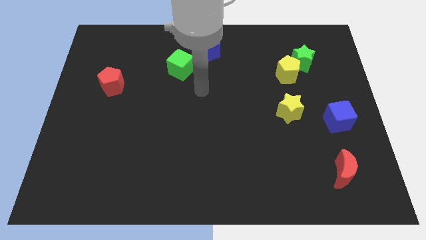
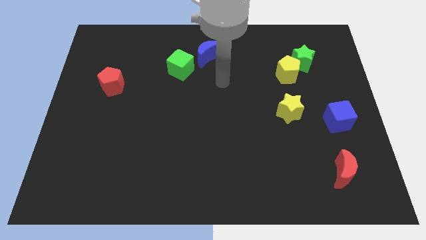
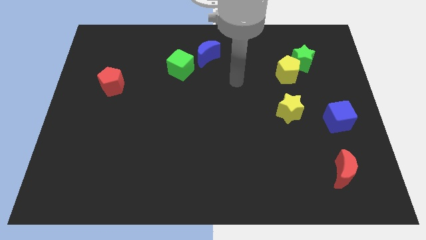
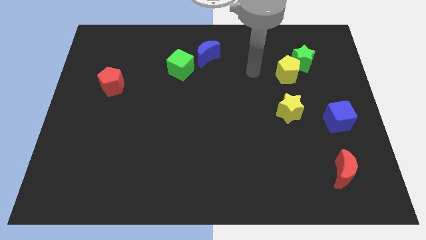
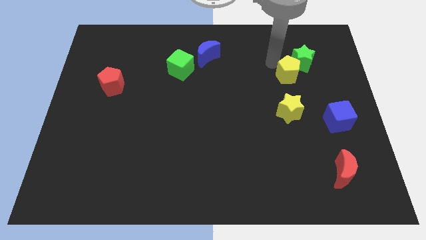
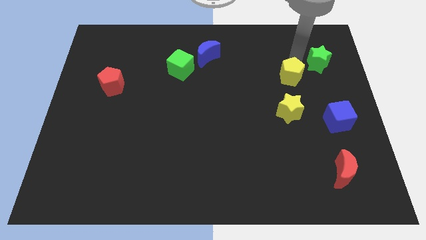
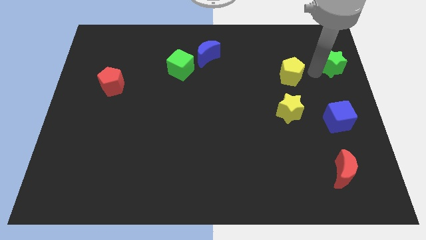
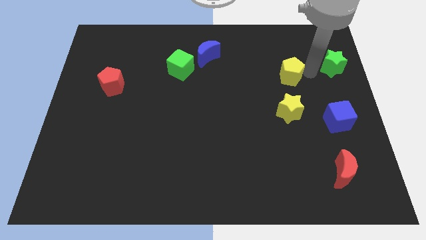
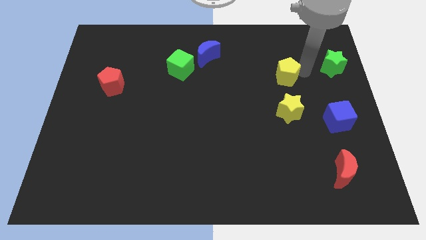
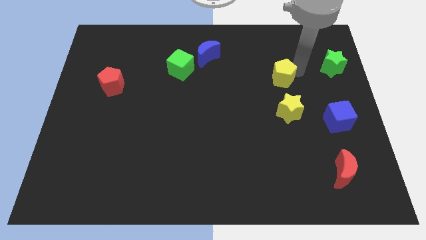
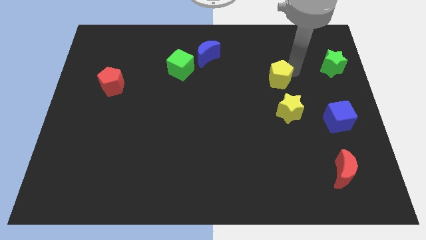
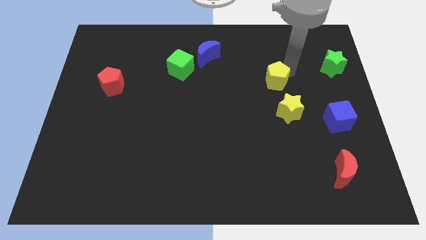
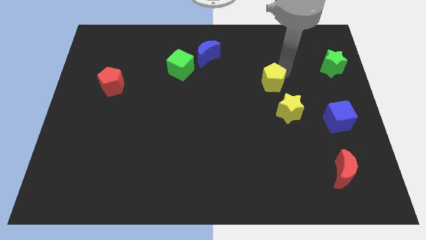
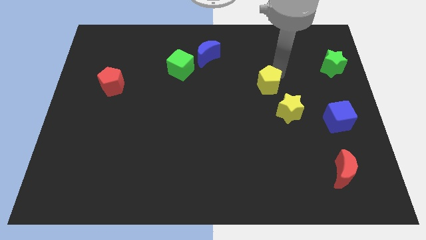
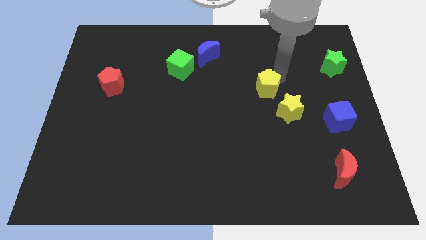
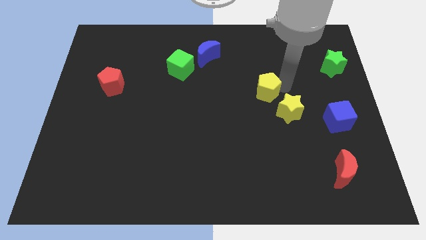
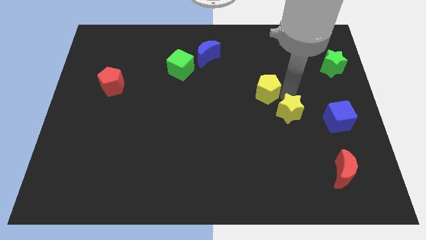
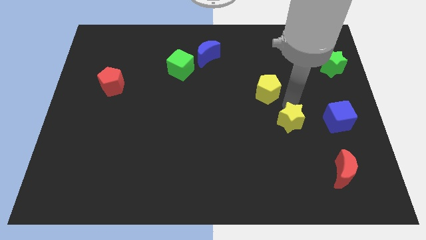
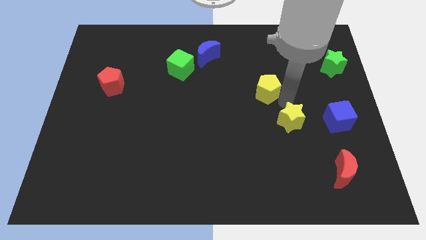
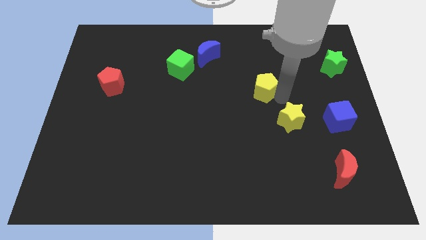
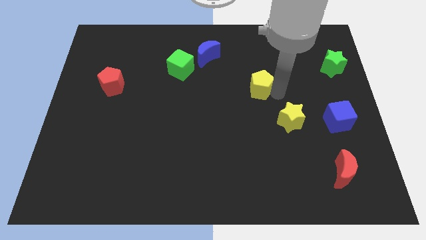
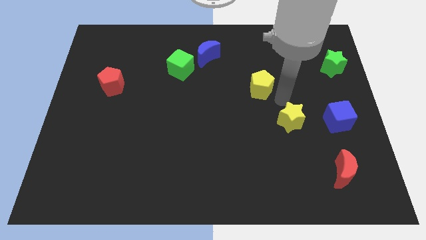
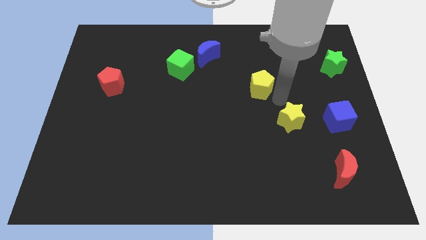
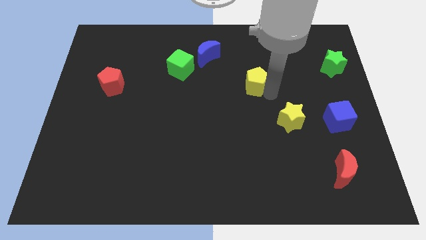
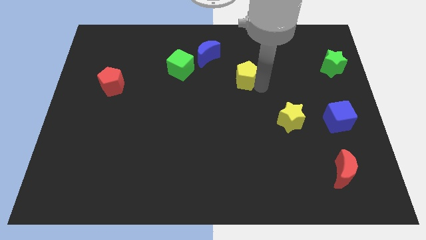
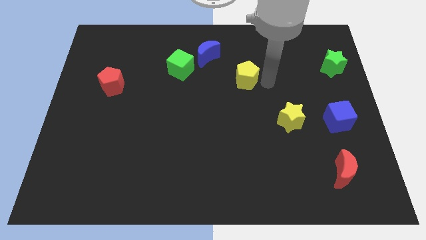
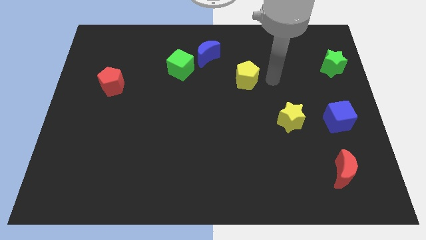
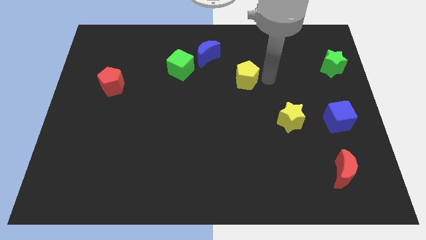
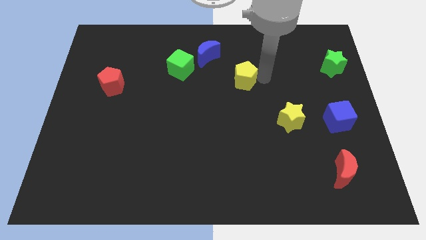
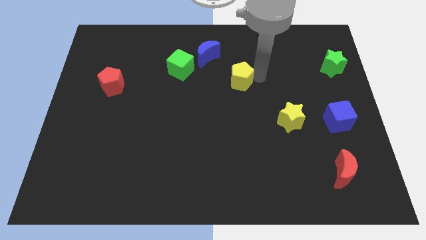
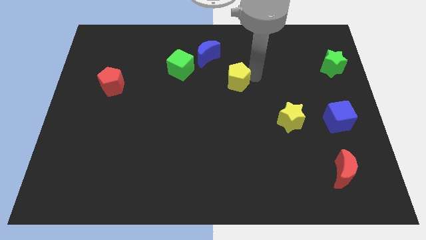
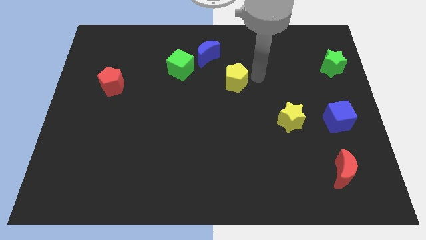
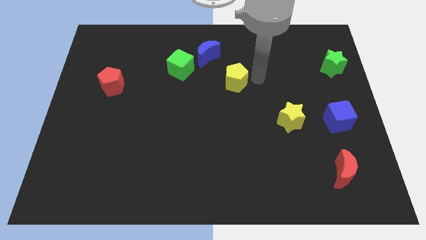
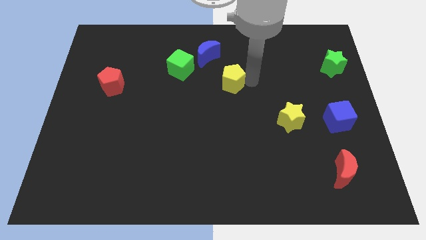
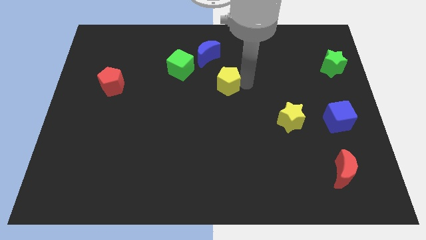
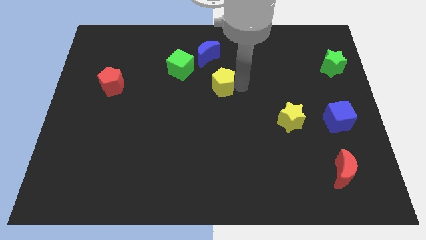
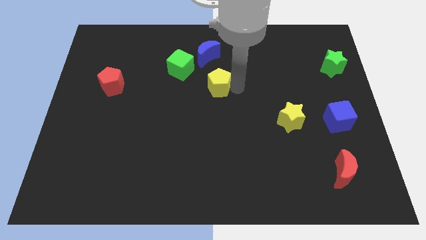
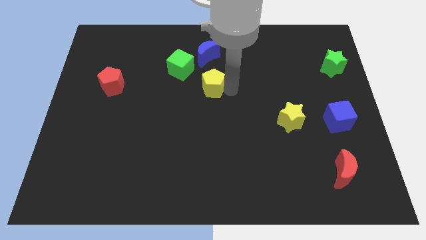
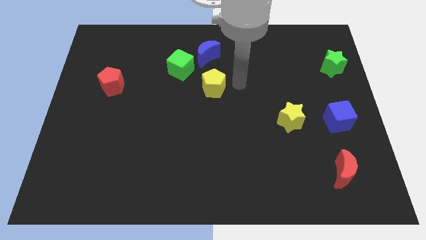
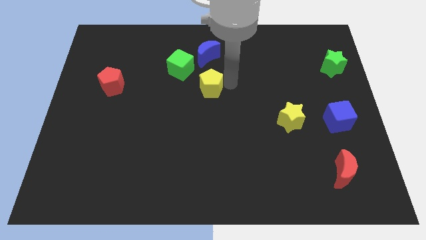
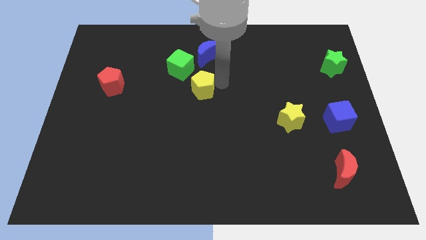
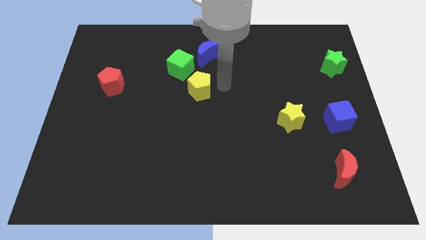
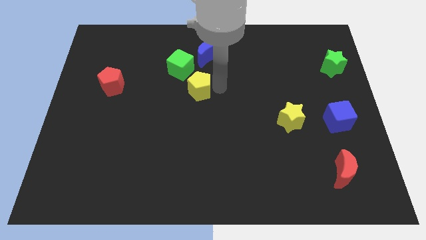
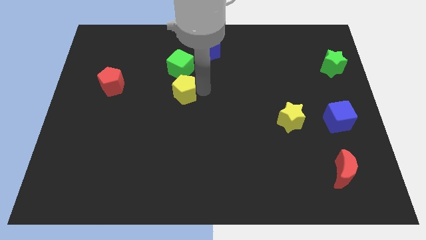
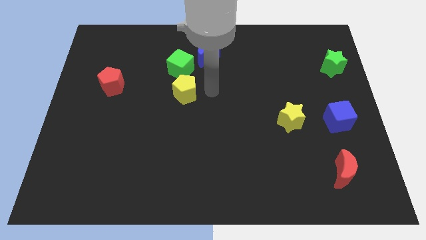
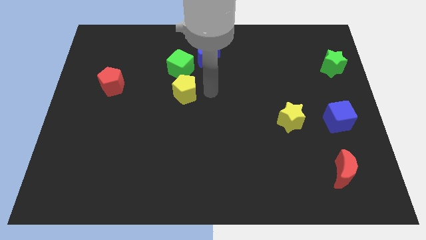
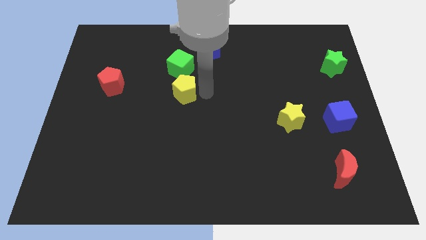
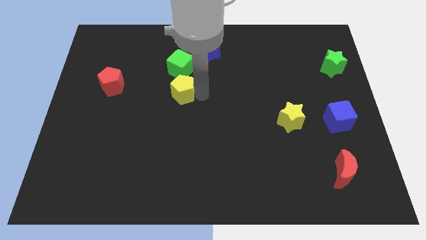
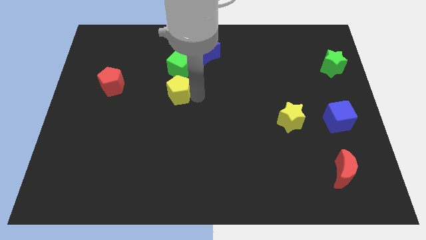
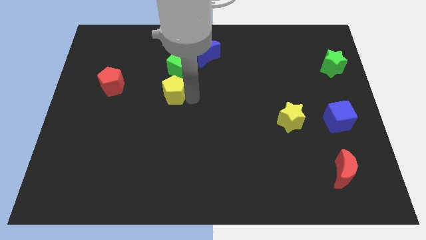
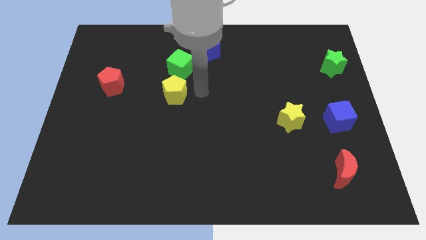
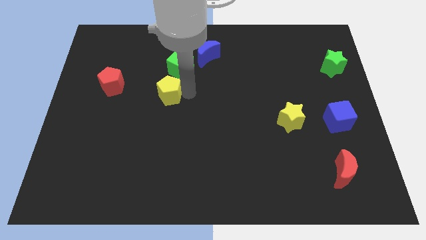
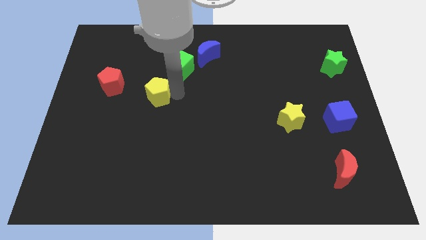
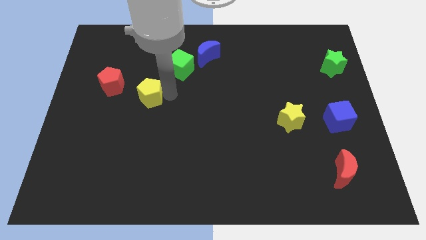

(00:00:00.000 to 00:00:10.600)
push the yellow pentagon diagonally down and to the right of the red pentagon

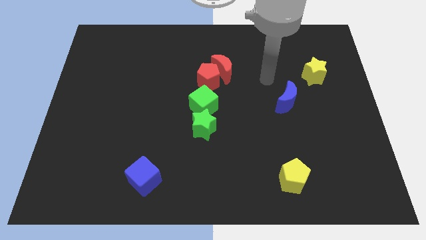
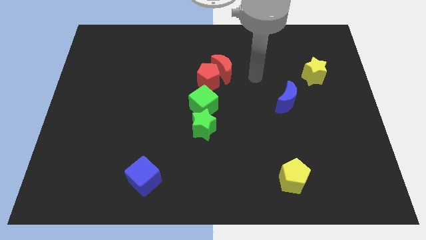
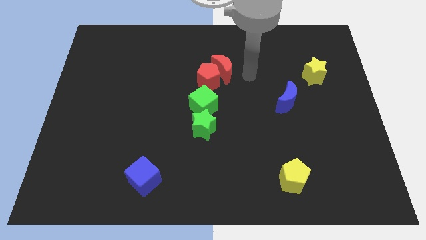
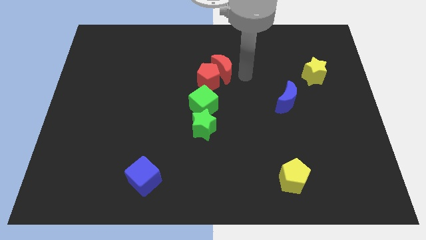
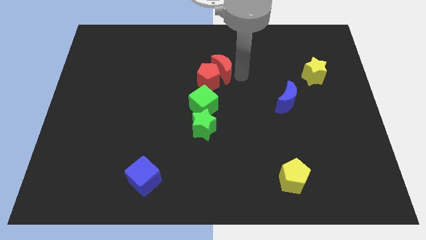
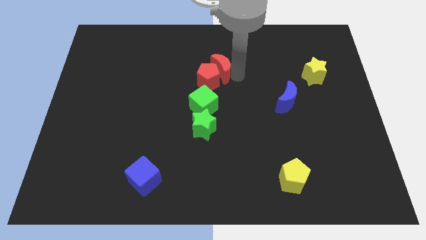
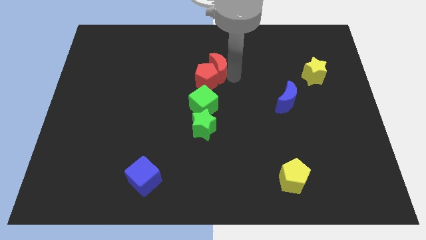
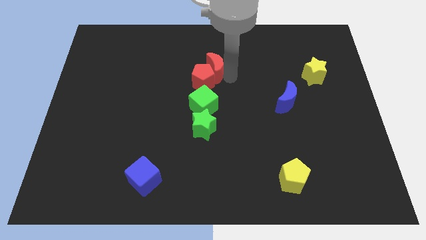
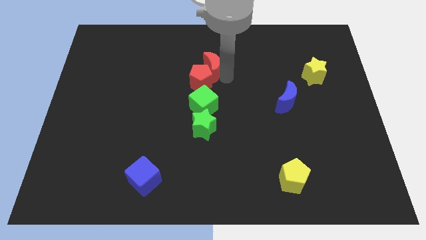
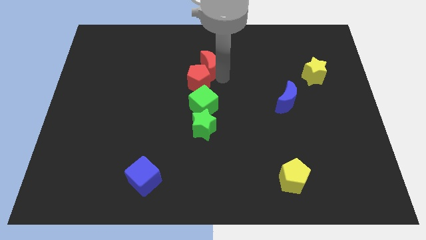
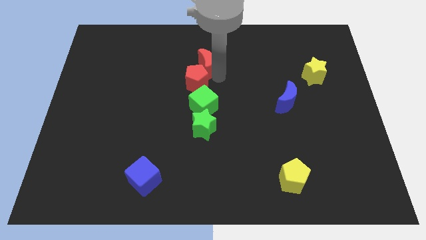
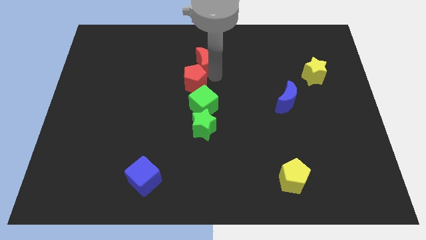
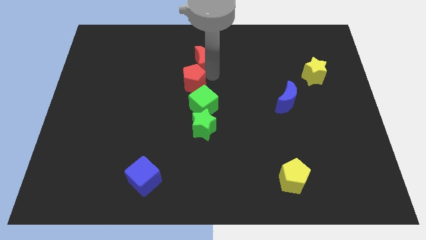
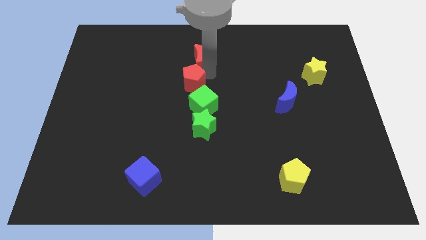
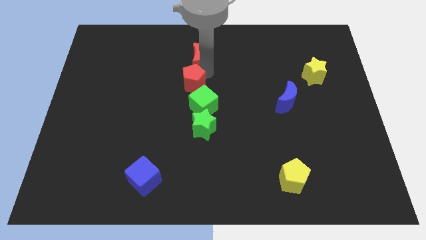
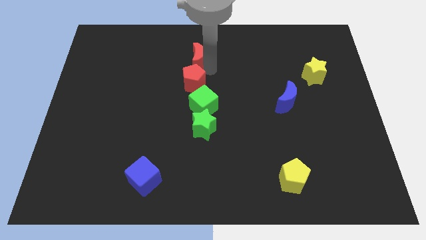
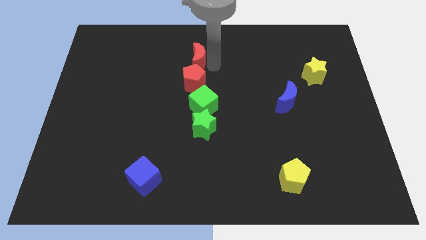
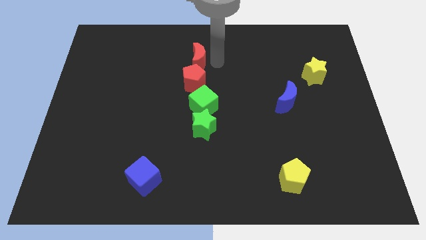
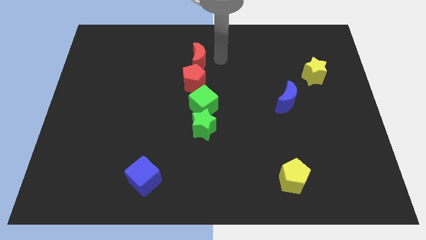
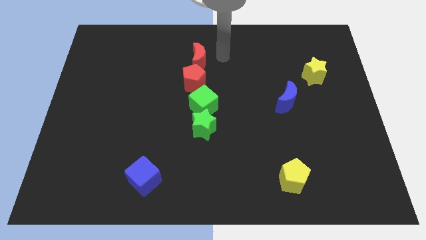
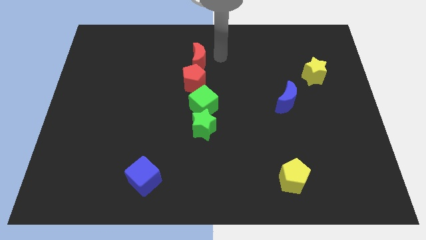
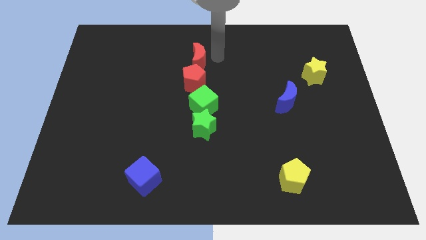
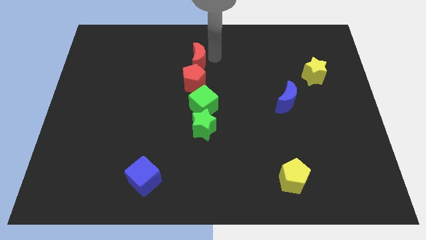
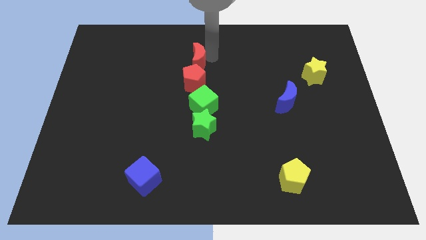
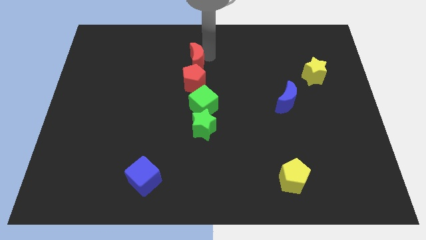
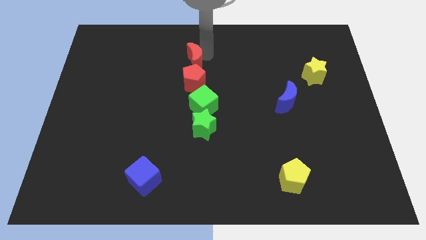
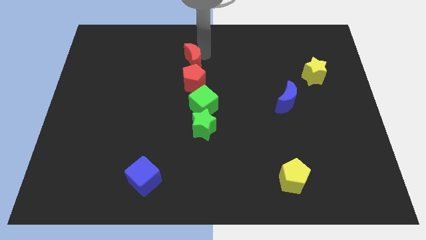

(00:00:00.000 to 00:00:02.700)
push the red moon diagonally up and to the left of the red pentagon

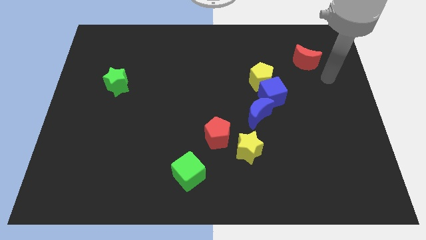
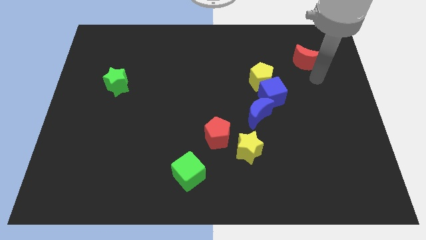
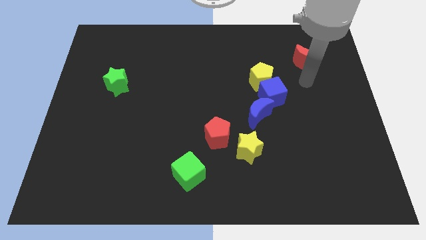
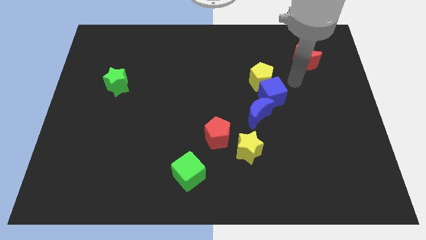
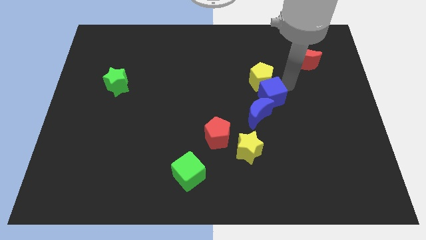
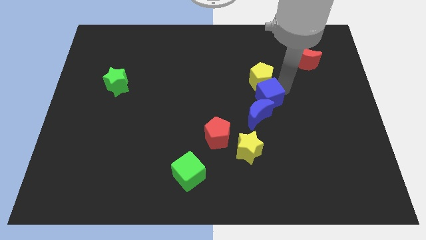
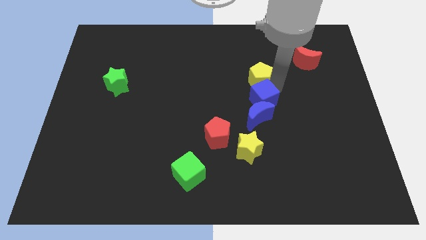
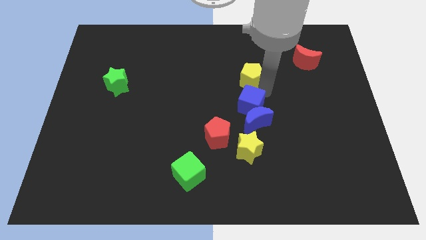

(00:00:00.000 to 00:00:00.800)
move the blue moon to the right of the red pentagon
